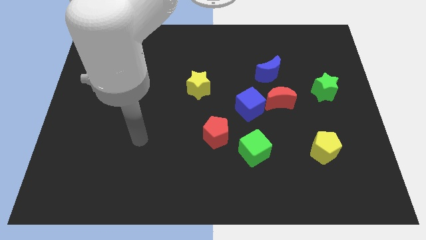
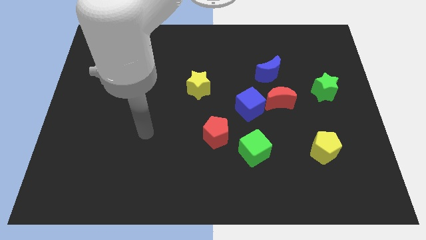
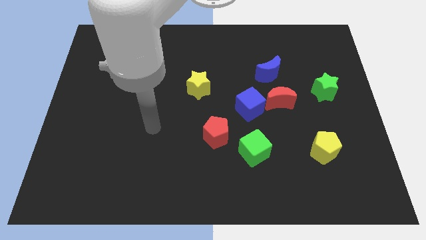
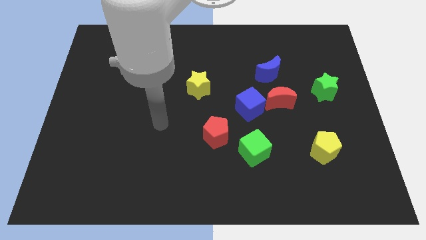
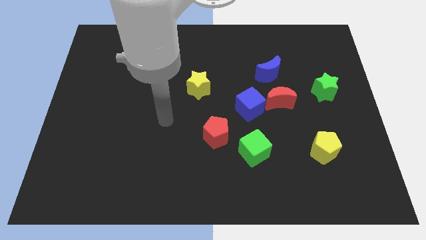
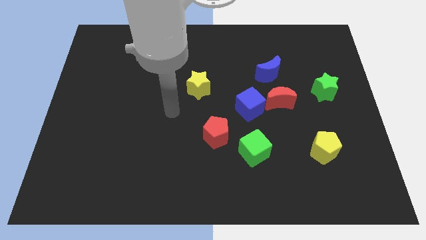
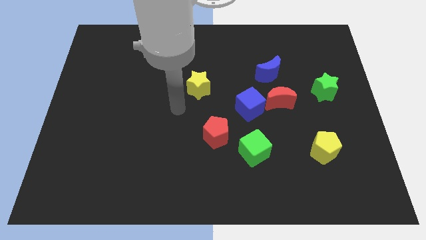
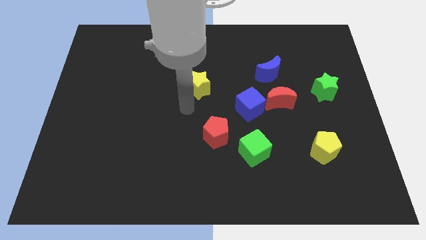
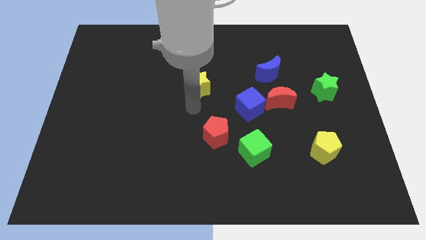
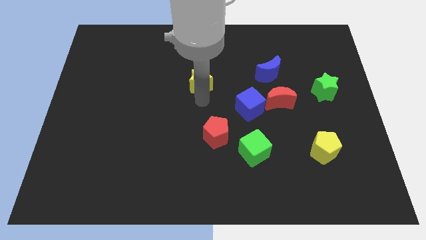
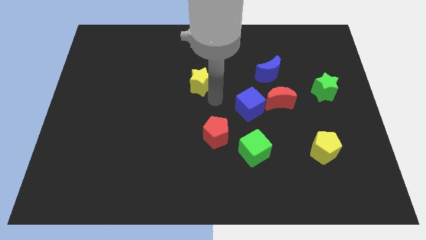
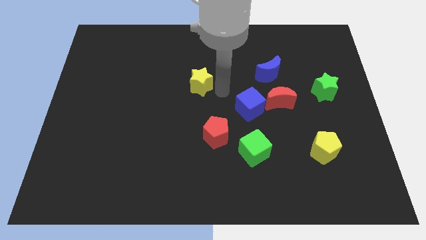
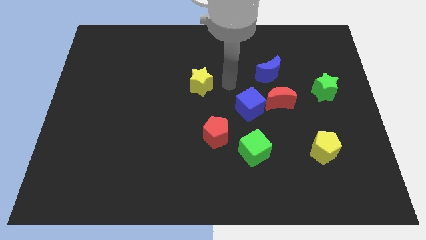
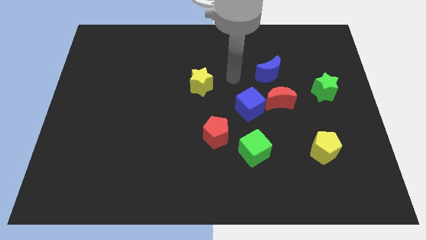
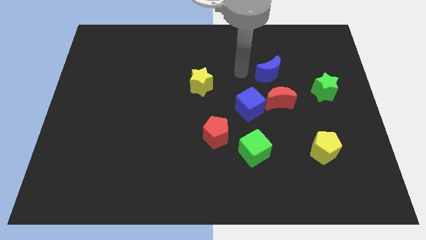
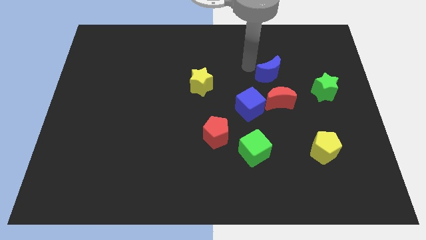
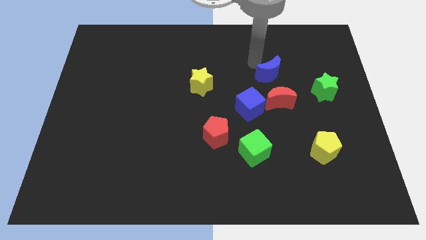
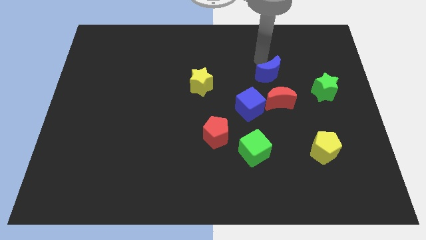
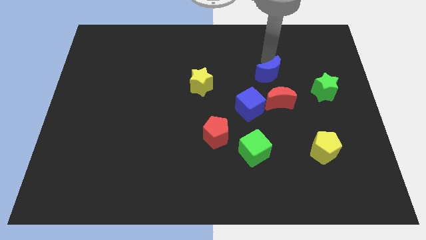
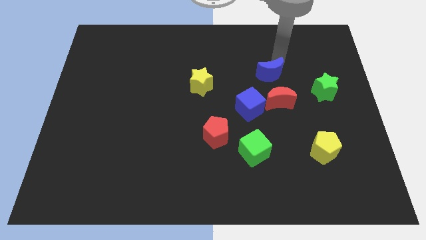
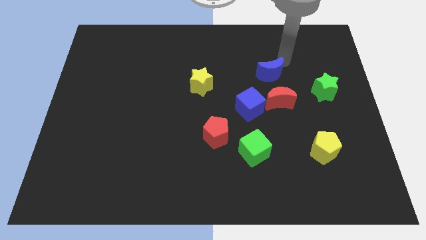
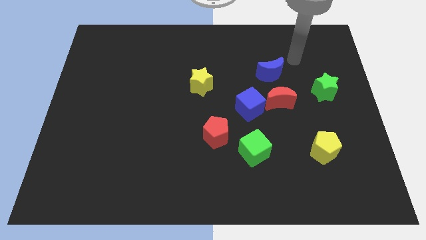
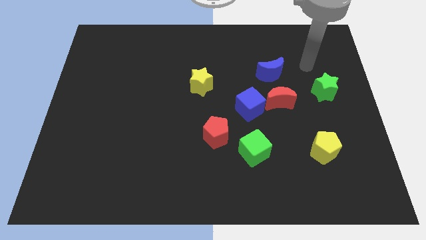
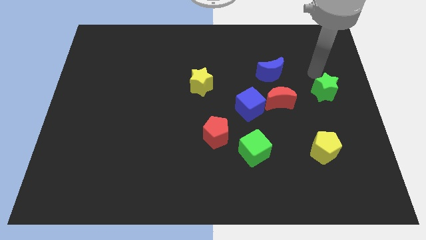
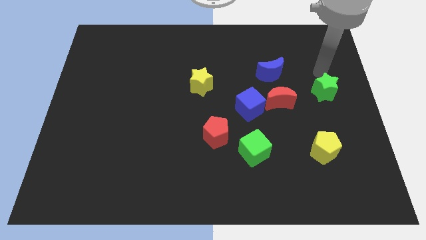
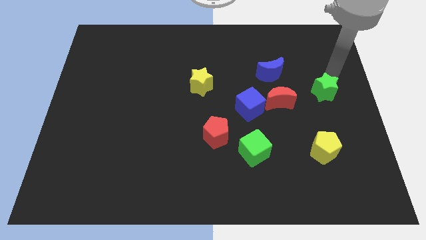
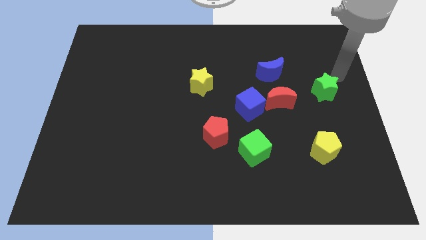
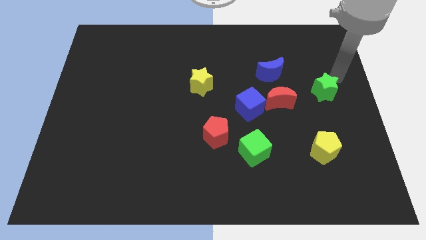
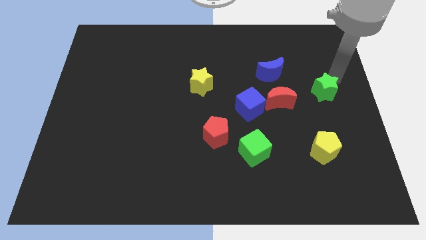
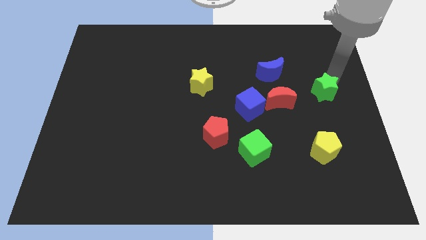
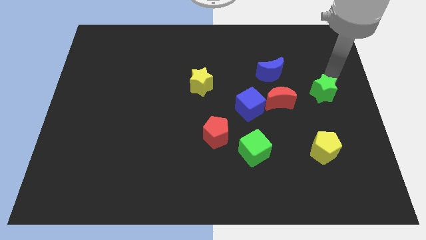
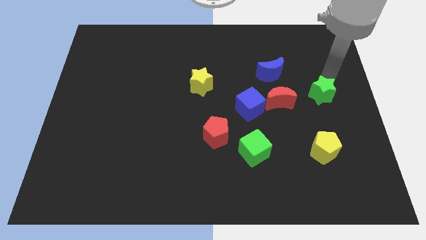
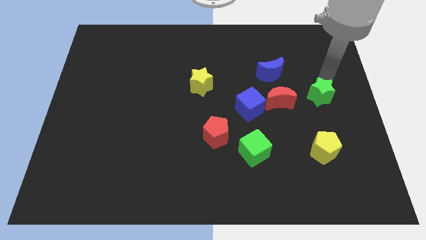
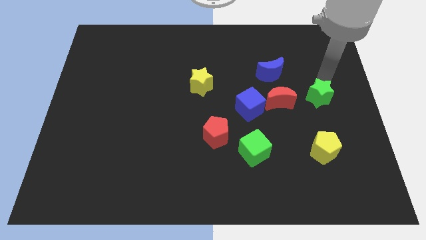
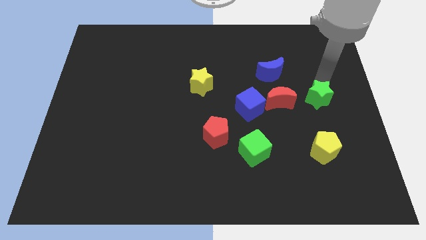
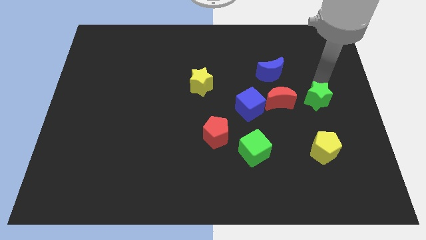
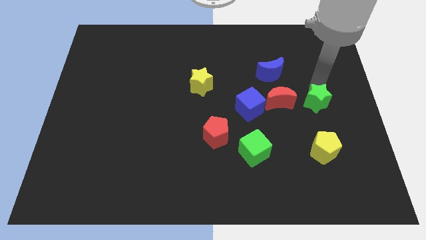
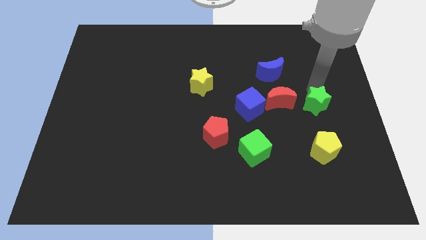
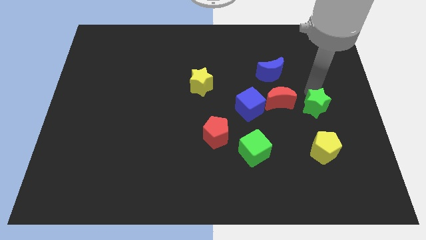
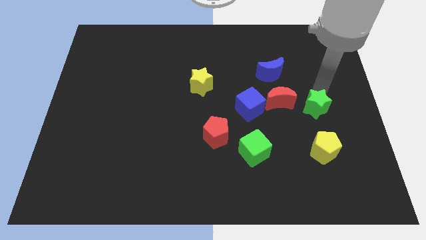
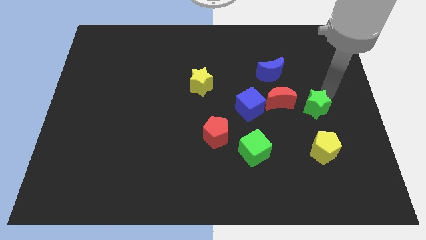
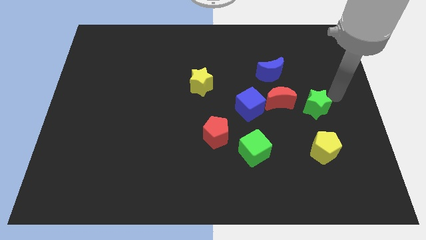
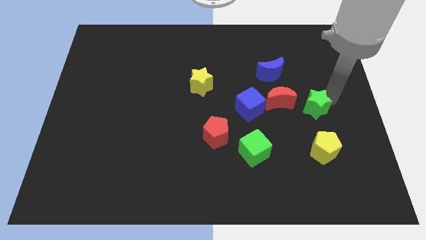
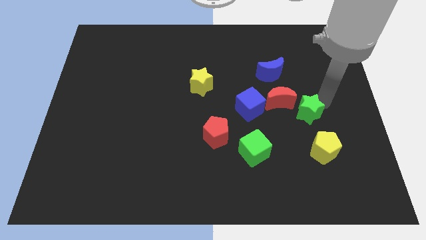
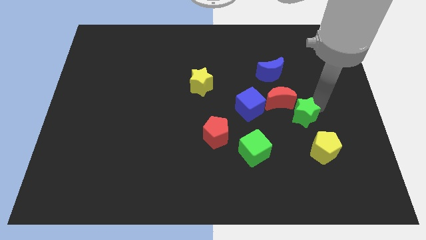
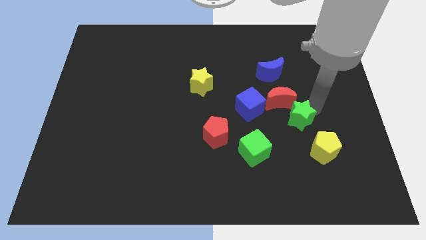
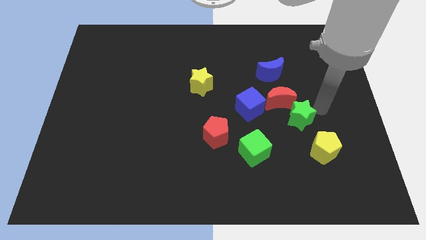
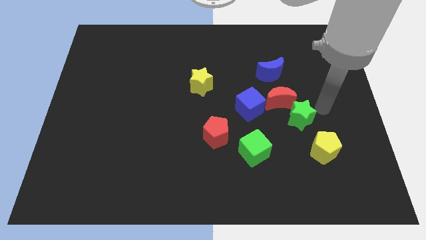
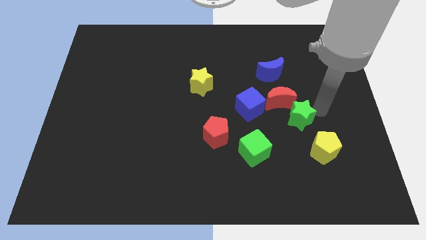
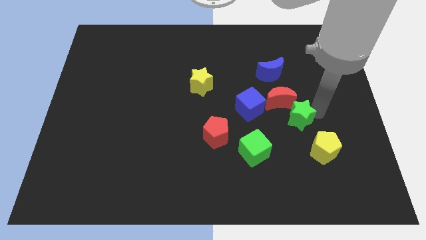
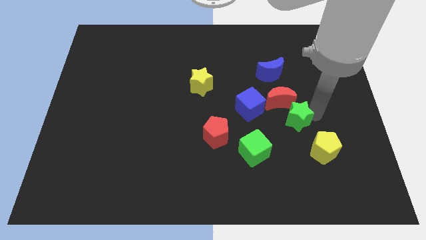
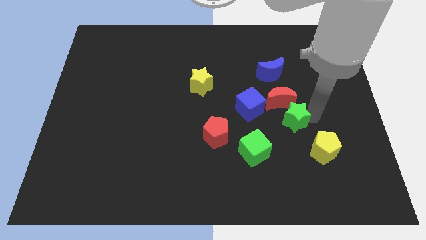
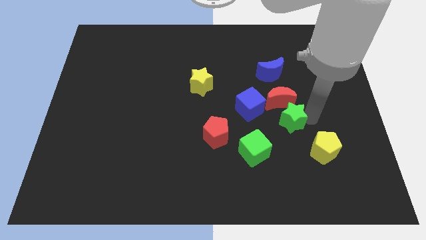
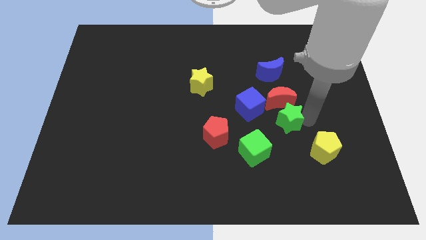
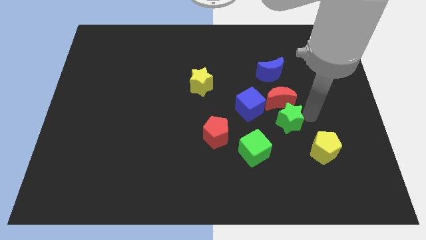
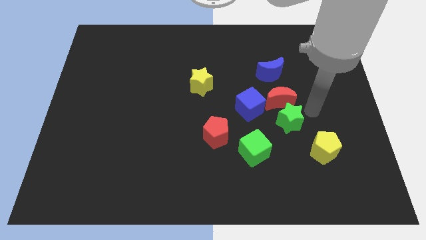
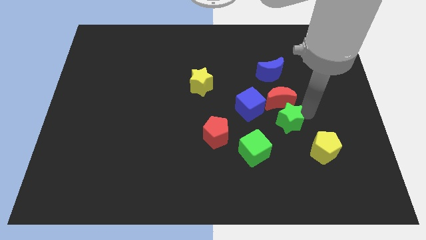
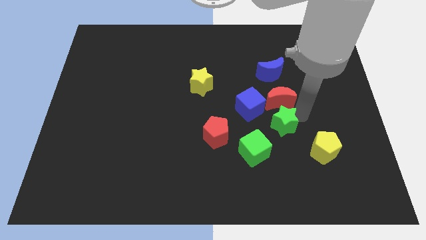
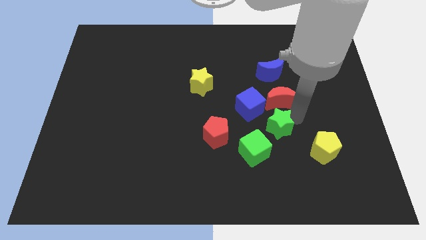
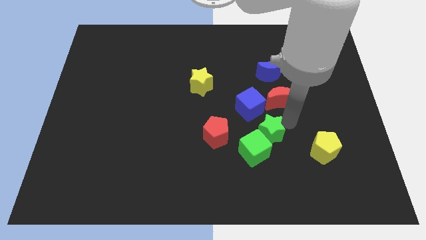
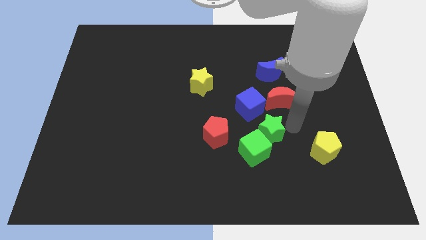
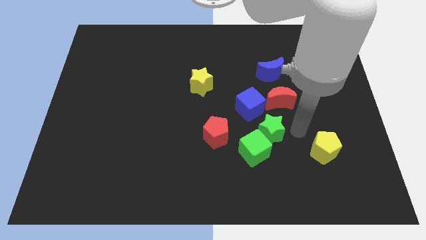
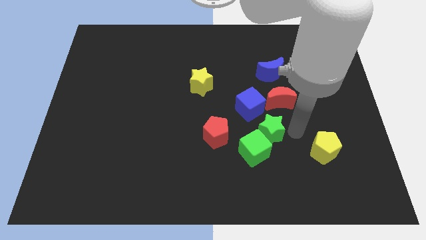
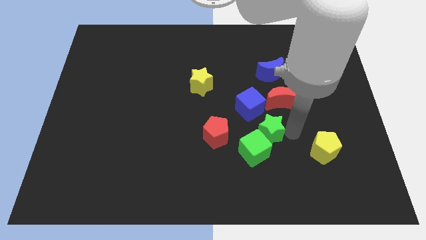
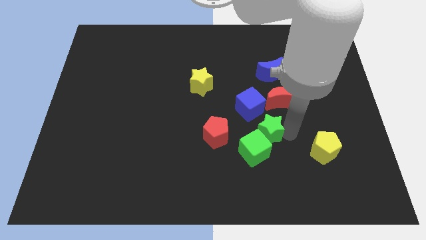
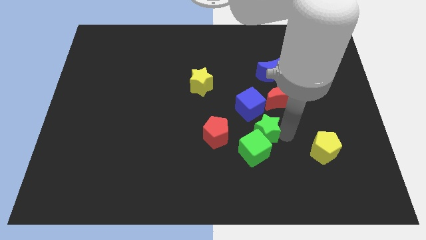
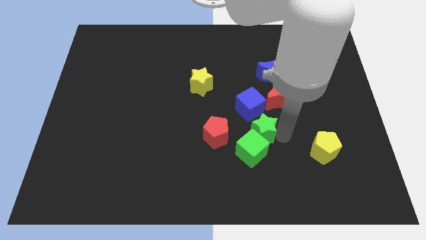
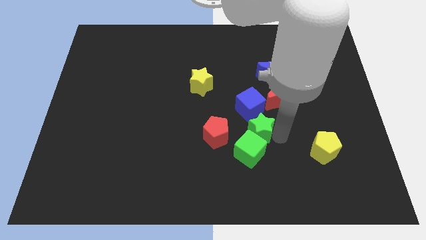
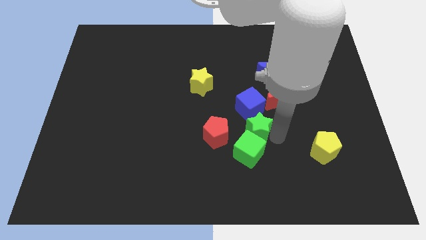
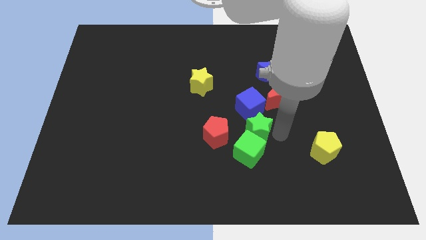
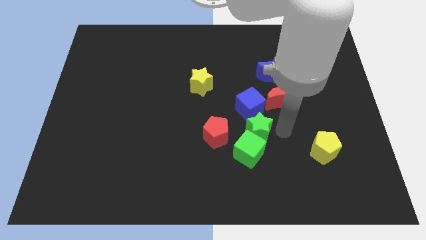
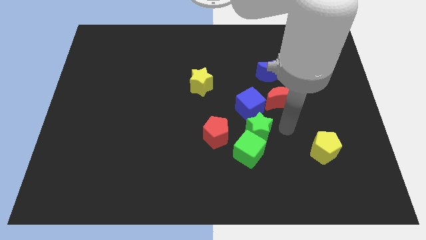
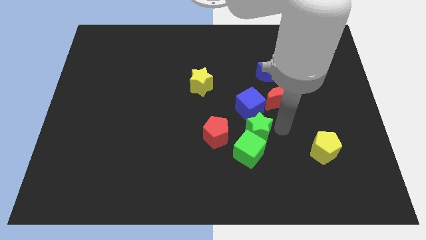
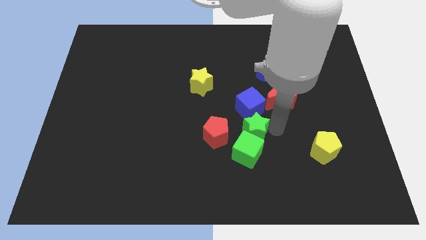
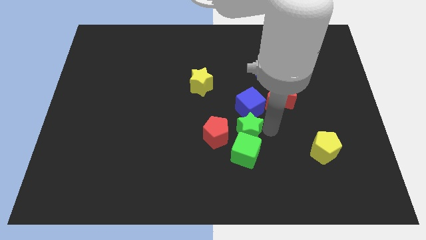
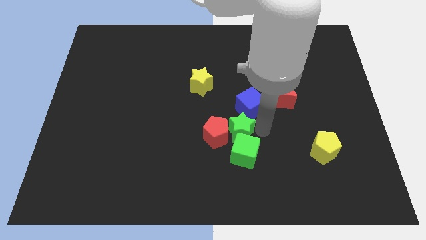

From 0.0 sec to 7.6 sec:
slide the green star next to the red pentagon
